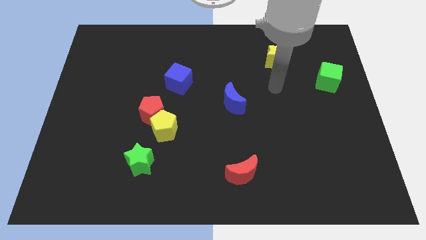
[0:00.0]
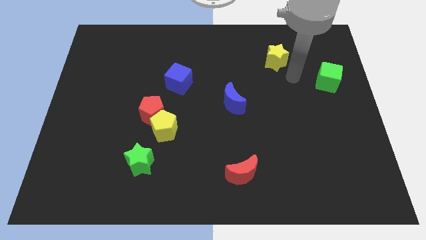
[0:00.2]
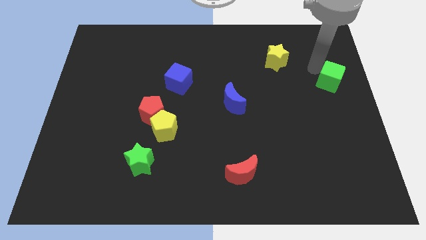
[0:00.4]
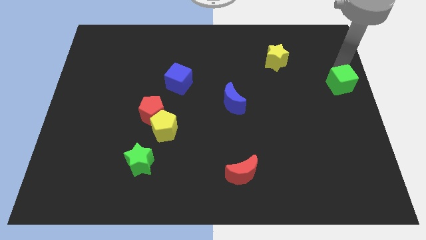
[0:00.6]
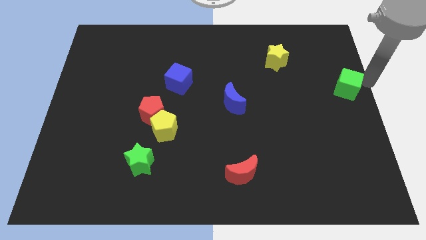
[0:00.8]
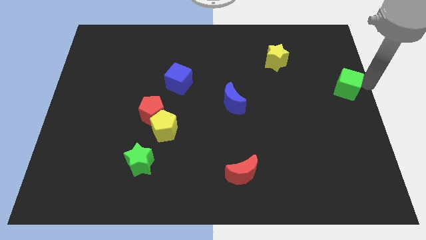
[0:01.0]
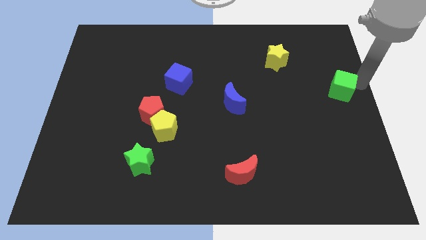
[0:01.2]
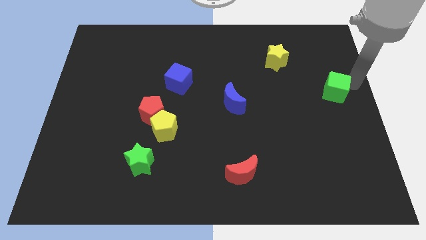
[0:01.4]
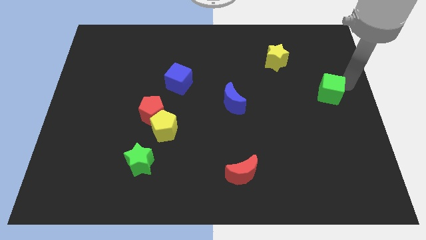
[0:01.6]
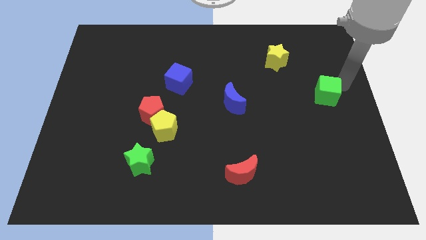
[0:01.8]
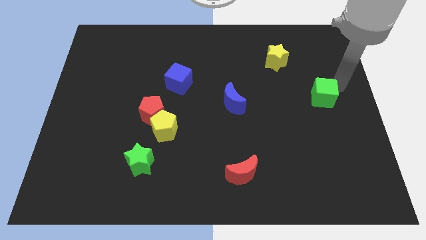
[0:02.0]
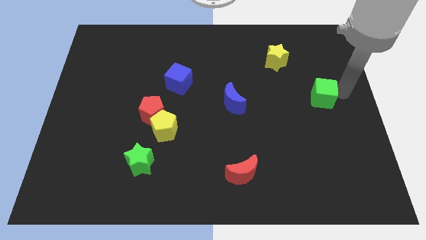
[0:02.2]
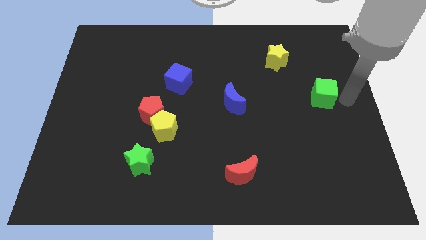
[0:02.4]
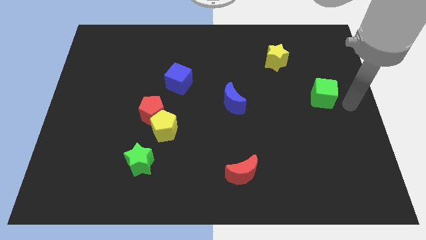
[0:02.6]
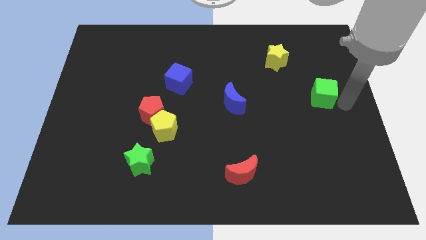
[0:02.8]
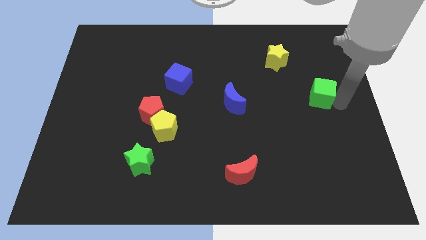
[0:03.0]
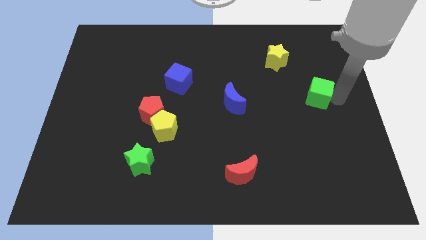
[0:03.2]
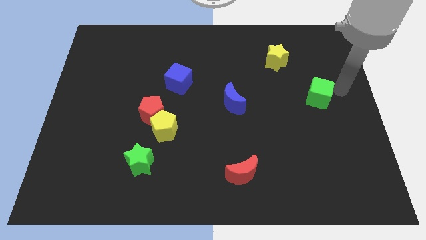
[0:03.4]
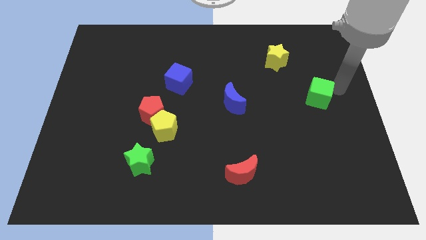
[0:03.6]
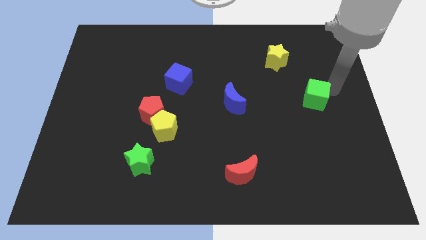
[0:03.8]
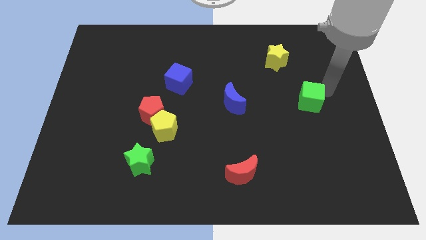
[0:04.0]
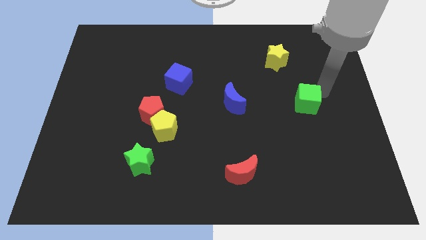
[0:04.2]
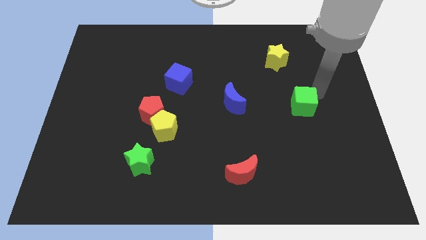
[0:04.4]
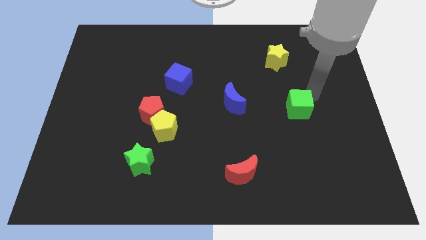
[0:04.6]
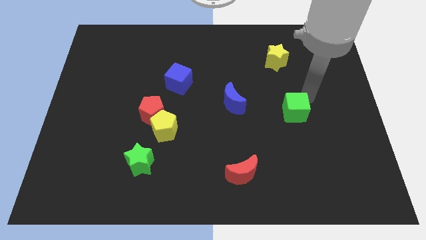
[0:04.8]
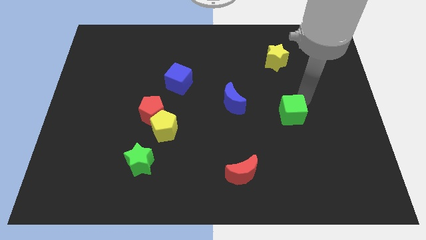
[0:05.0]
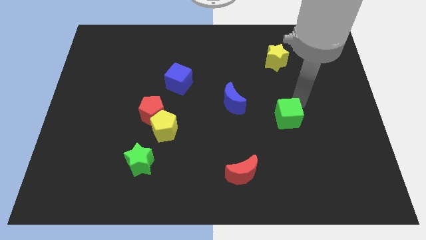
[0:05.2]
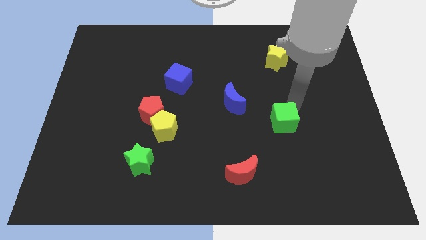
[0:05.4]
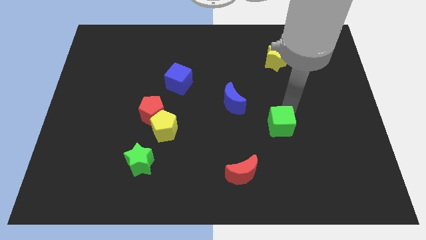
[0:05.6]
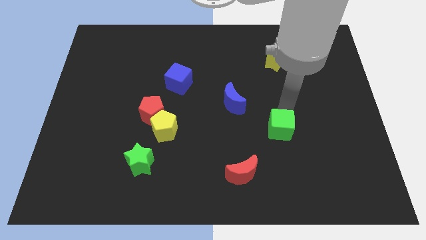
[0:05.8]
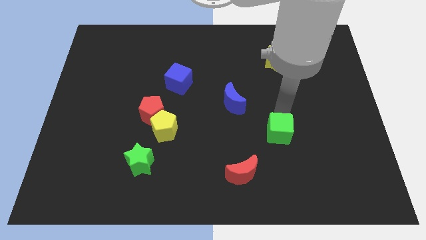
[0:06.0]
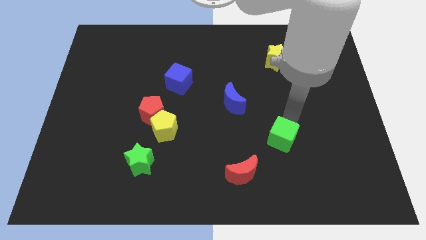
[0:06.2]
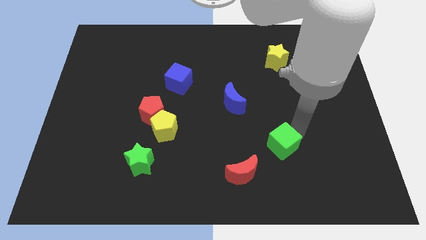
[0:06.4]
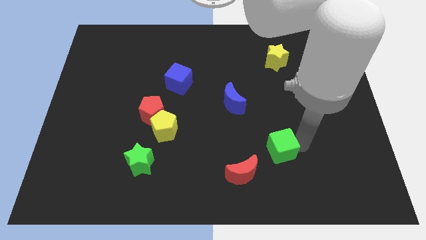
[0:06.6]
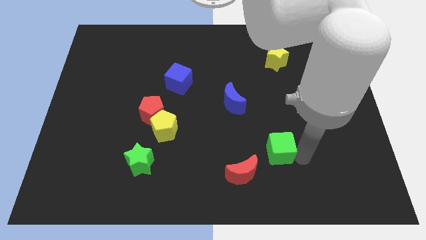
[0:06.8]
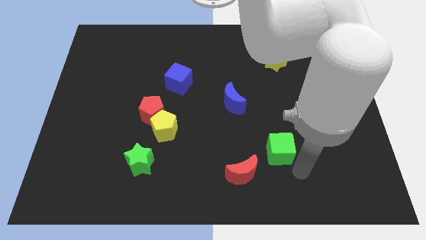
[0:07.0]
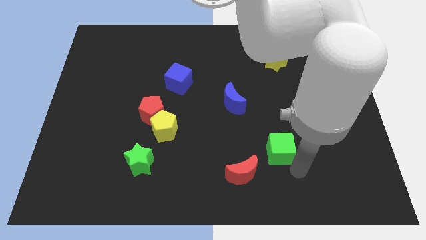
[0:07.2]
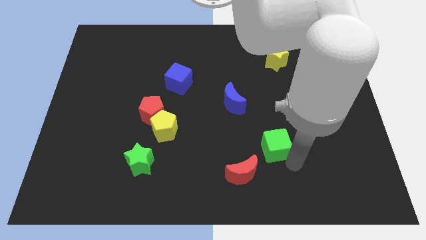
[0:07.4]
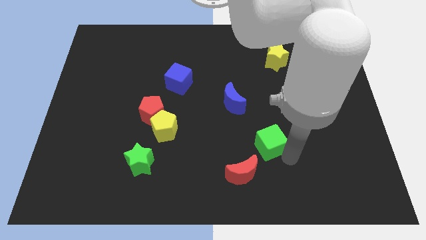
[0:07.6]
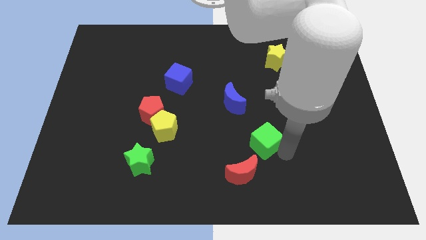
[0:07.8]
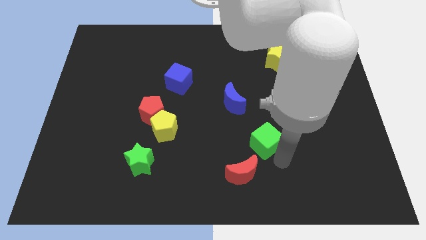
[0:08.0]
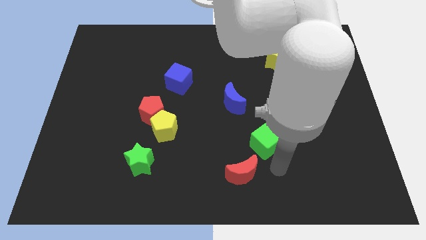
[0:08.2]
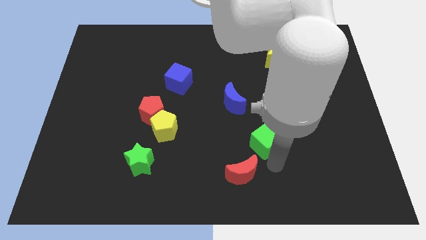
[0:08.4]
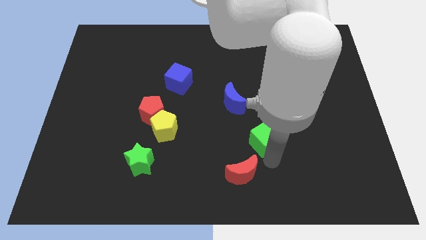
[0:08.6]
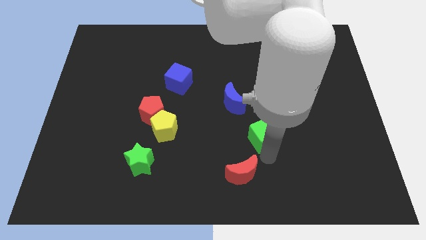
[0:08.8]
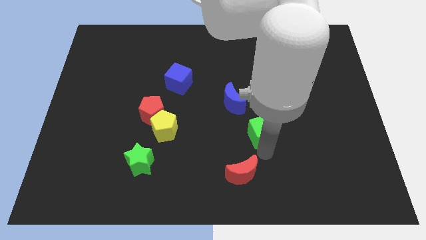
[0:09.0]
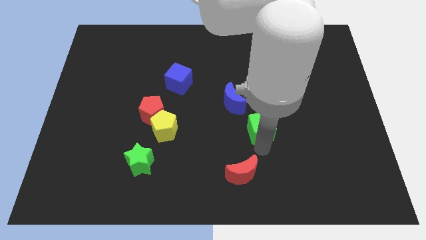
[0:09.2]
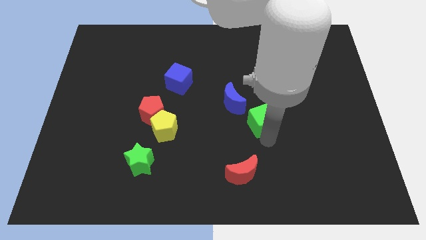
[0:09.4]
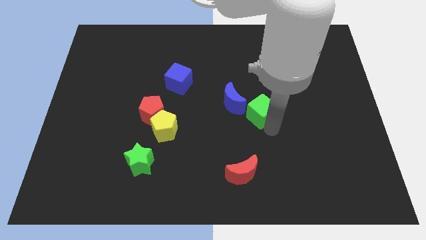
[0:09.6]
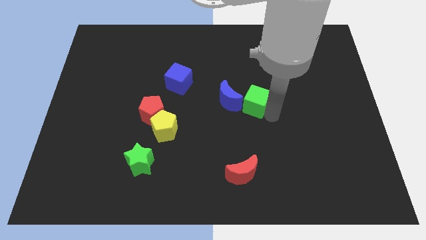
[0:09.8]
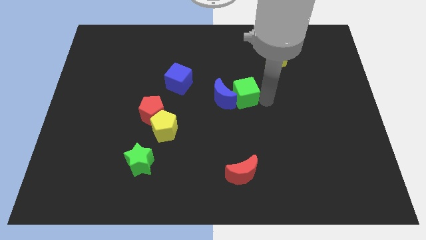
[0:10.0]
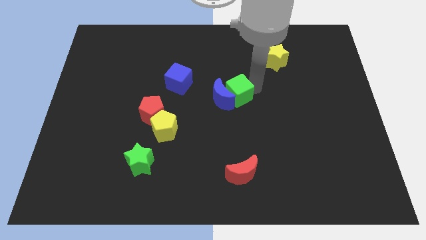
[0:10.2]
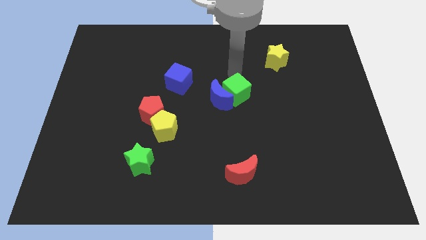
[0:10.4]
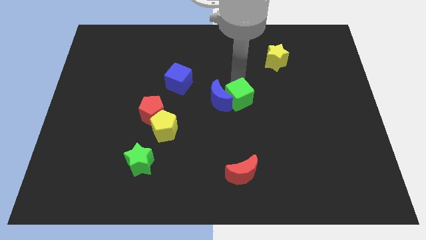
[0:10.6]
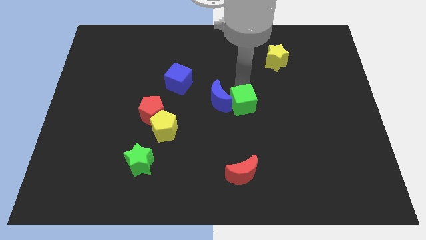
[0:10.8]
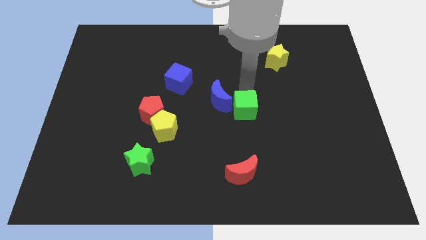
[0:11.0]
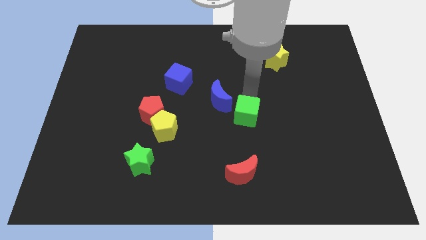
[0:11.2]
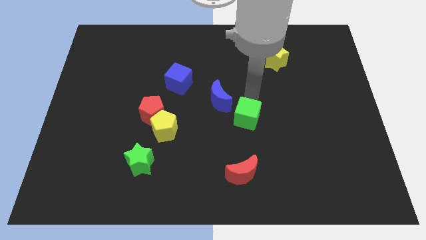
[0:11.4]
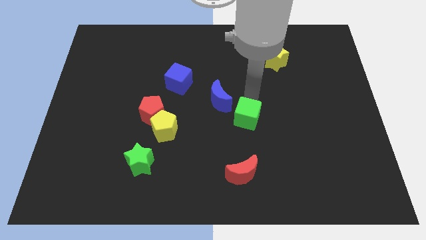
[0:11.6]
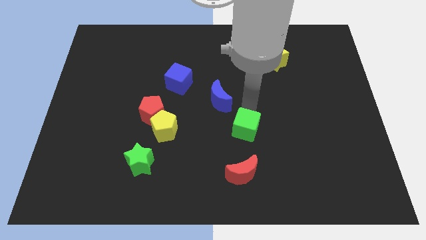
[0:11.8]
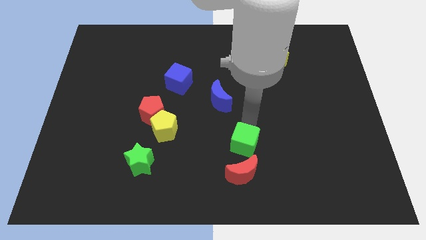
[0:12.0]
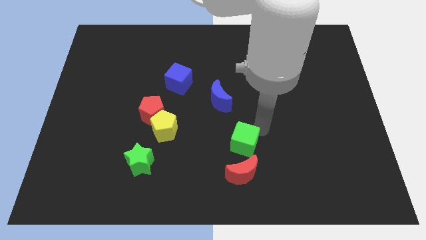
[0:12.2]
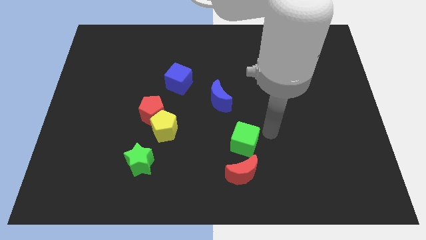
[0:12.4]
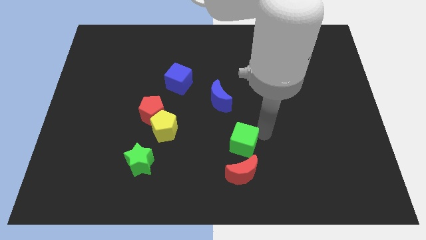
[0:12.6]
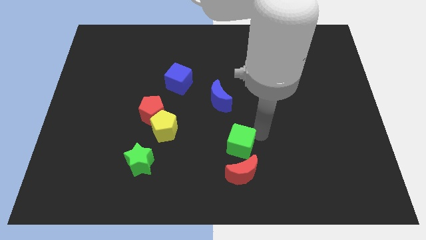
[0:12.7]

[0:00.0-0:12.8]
push the green cube diagonally up and to the left of the red moon

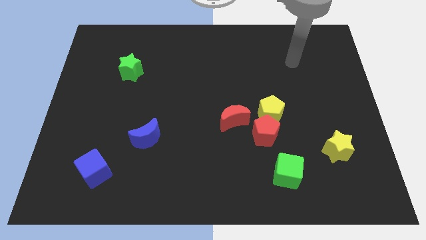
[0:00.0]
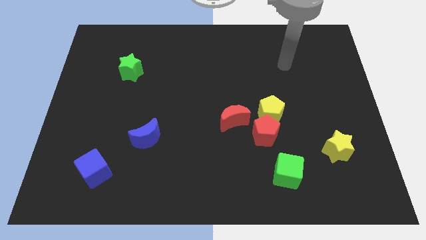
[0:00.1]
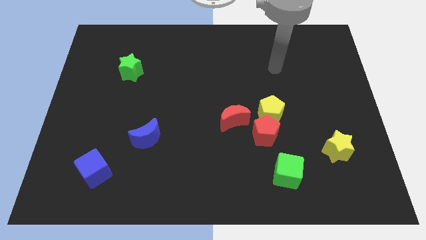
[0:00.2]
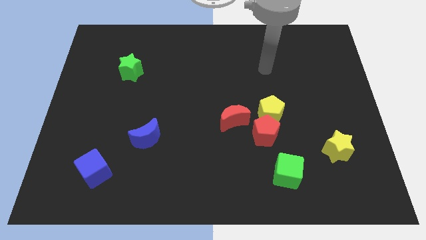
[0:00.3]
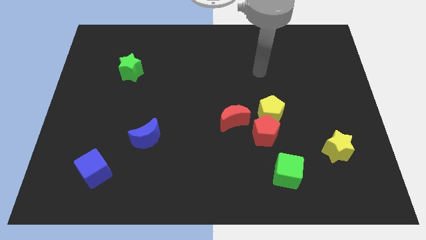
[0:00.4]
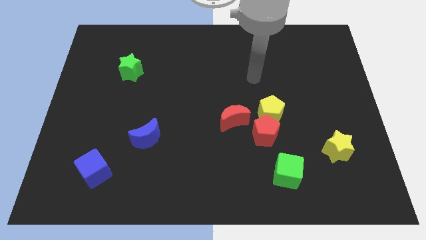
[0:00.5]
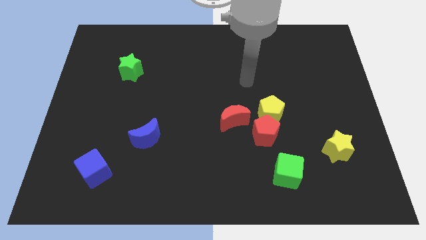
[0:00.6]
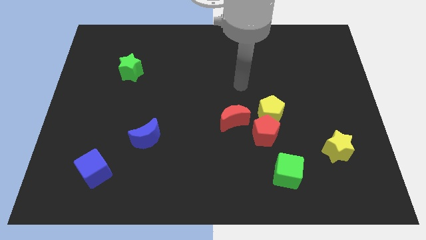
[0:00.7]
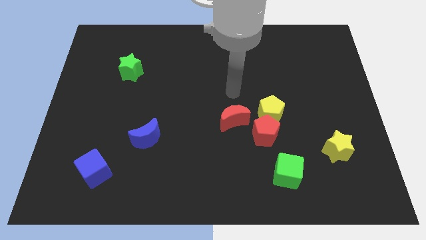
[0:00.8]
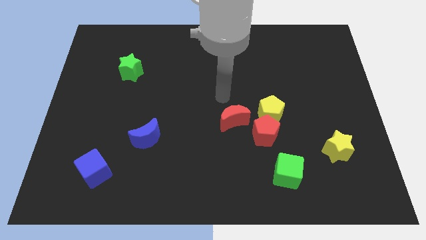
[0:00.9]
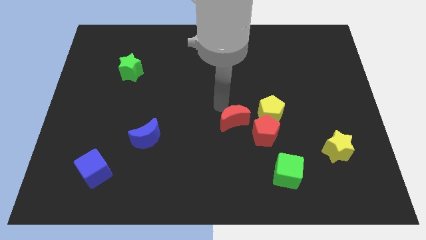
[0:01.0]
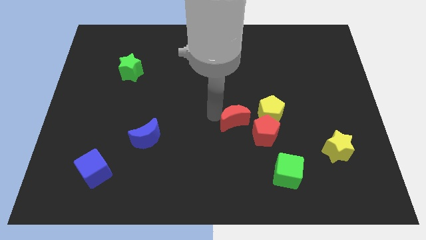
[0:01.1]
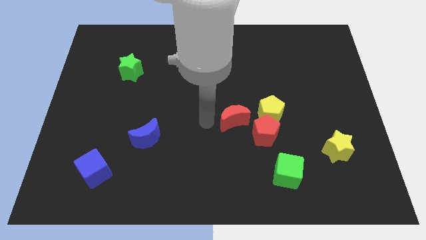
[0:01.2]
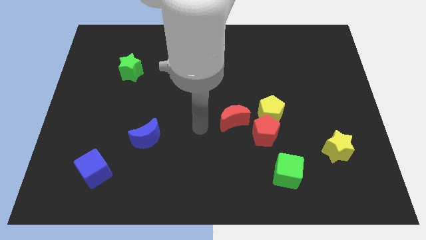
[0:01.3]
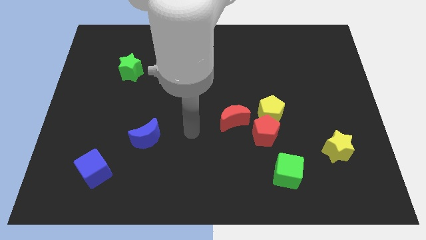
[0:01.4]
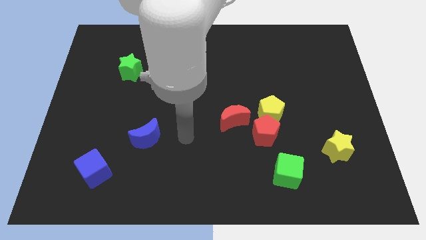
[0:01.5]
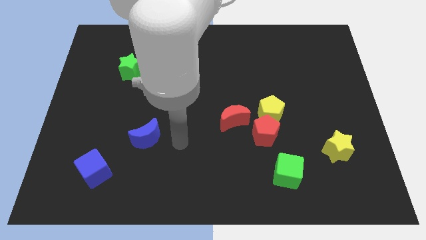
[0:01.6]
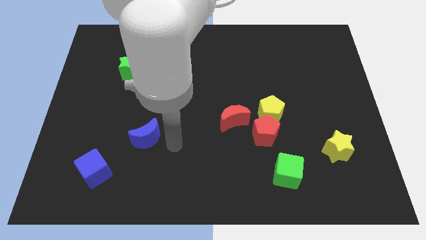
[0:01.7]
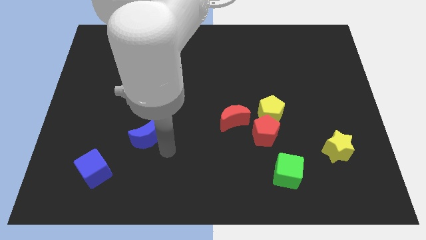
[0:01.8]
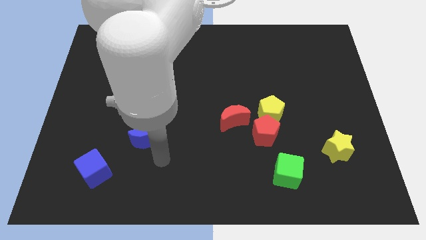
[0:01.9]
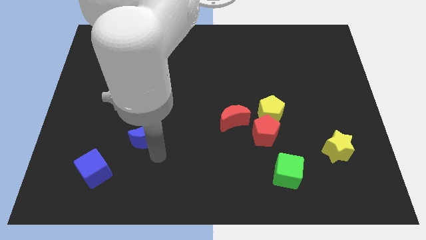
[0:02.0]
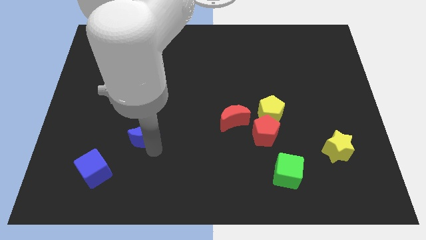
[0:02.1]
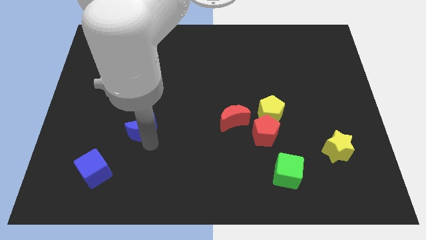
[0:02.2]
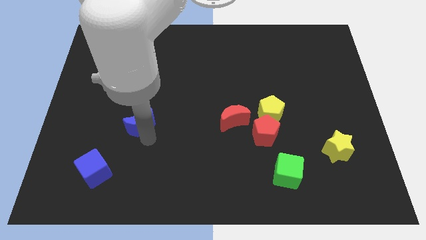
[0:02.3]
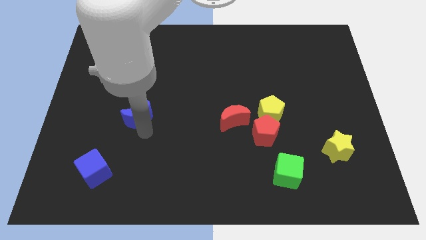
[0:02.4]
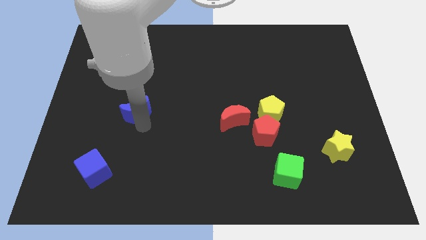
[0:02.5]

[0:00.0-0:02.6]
push the blue moon below the green star
